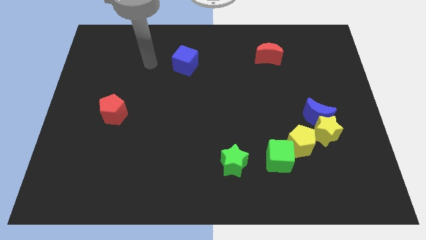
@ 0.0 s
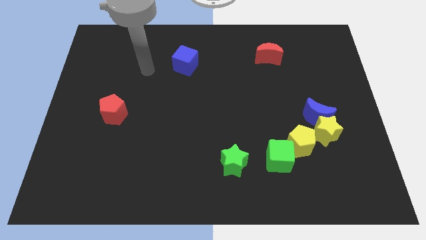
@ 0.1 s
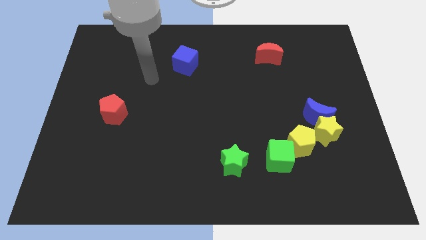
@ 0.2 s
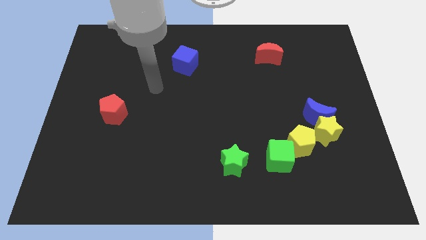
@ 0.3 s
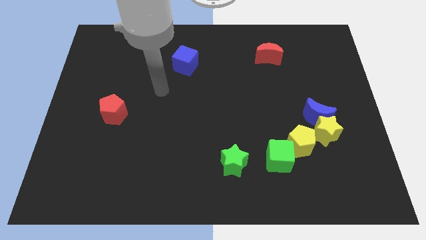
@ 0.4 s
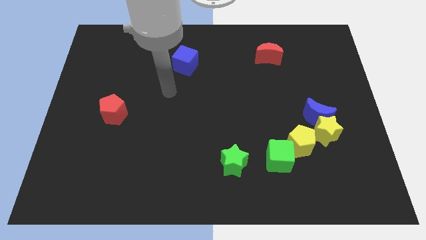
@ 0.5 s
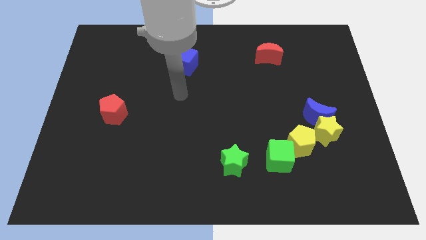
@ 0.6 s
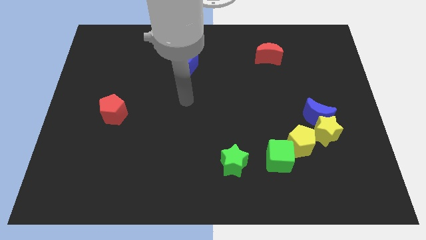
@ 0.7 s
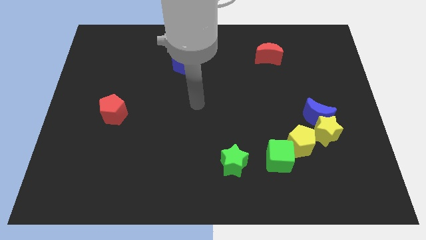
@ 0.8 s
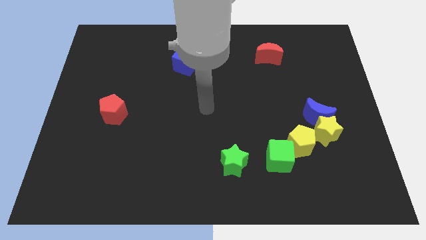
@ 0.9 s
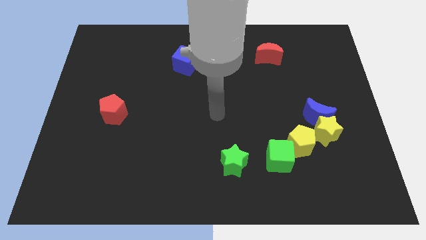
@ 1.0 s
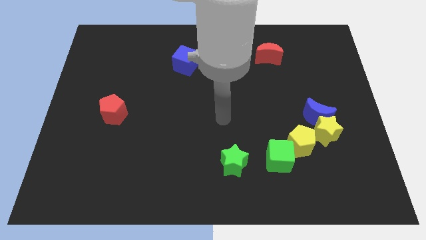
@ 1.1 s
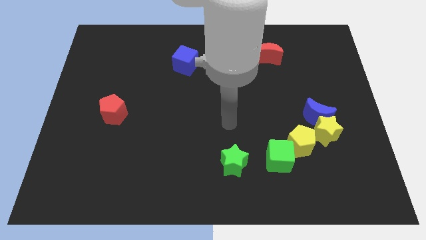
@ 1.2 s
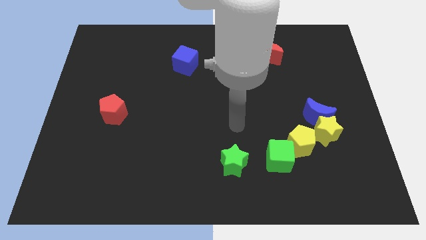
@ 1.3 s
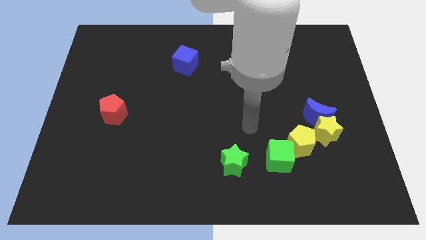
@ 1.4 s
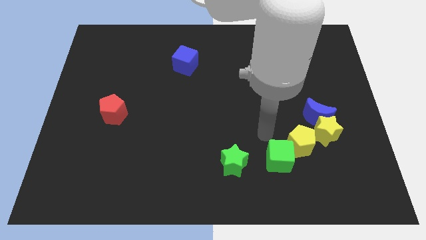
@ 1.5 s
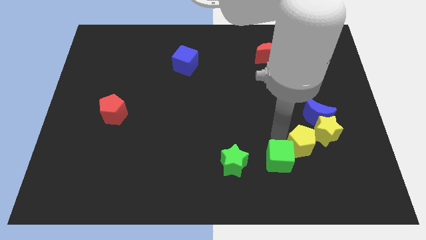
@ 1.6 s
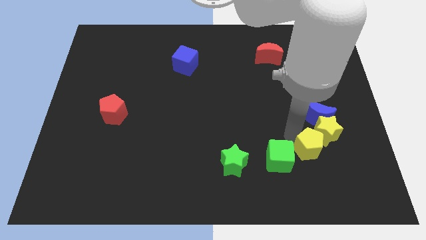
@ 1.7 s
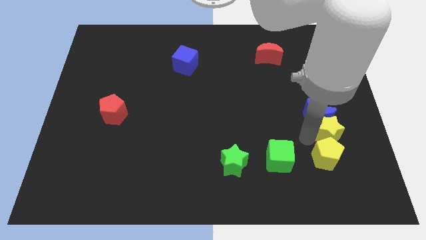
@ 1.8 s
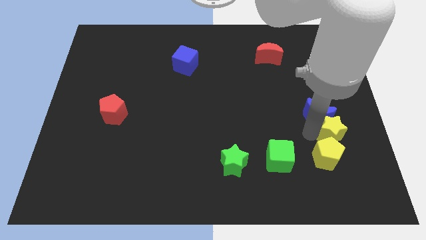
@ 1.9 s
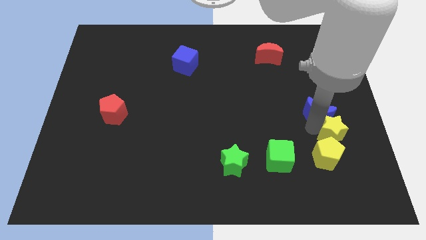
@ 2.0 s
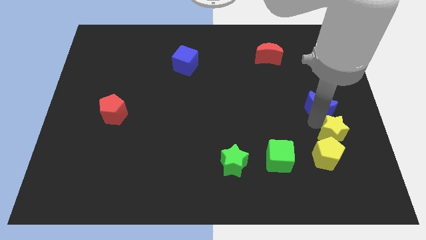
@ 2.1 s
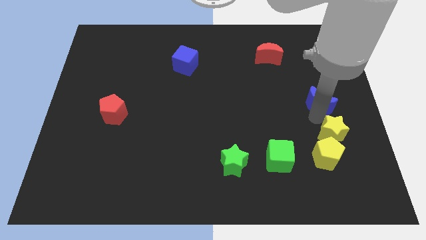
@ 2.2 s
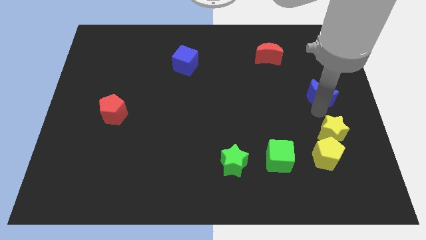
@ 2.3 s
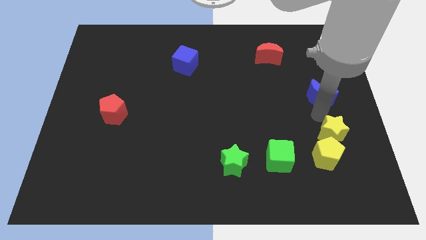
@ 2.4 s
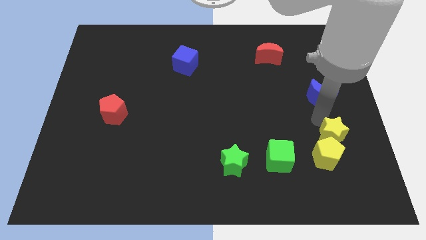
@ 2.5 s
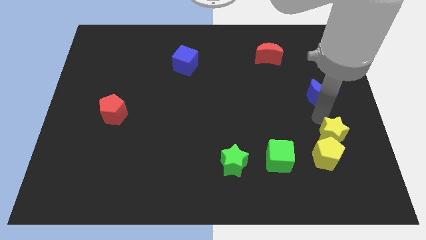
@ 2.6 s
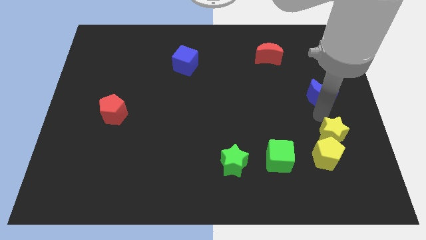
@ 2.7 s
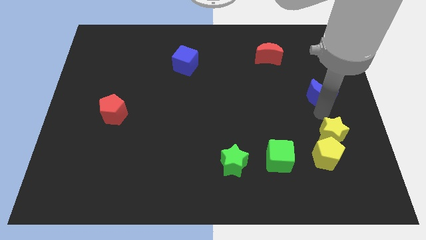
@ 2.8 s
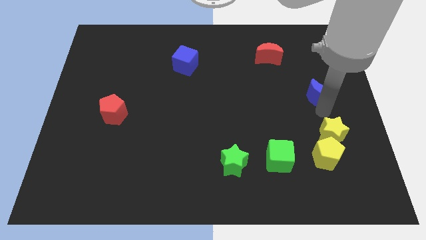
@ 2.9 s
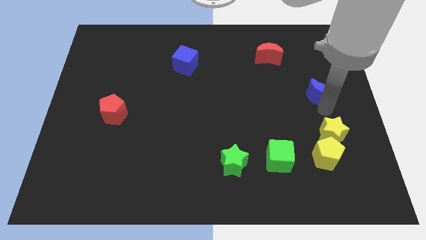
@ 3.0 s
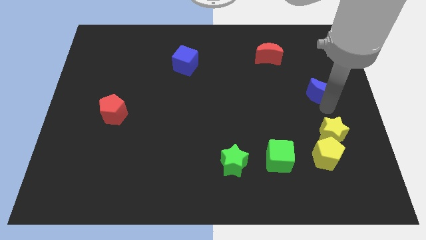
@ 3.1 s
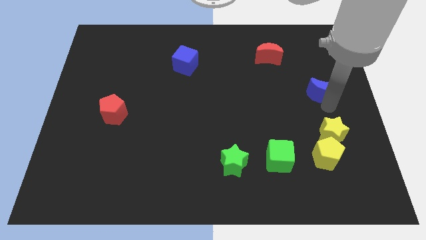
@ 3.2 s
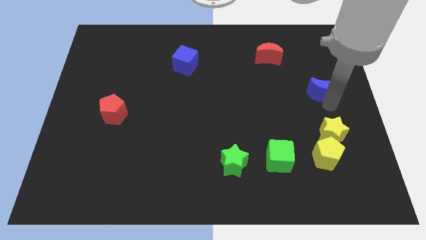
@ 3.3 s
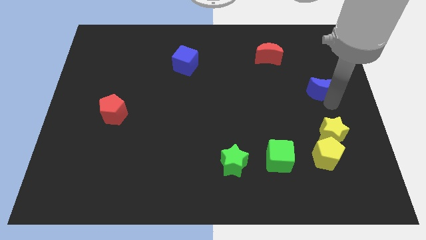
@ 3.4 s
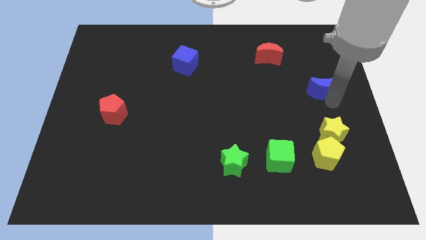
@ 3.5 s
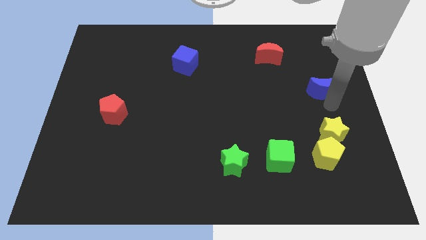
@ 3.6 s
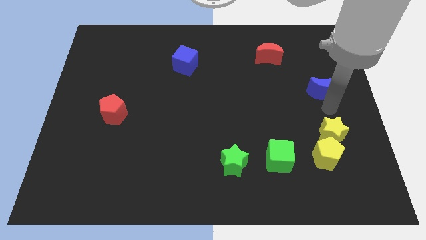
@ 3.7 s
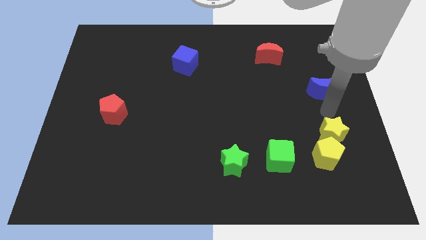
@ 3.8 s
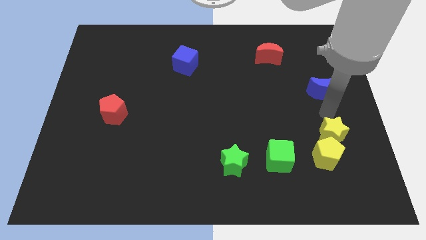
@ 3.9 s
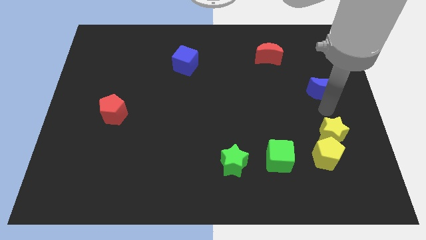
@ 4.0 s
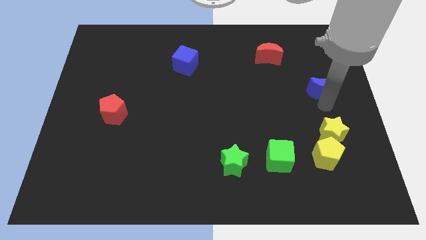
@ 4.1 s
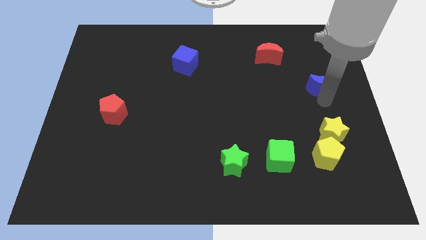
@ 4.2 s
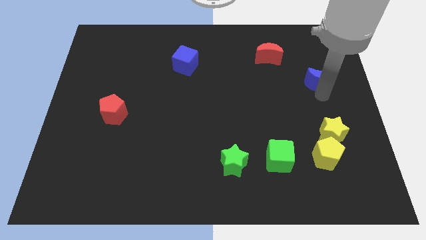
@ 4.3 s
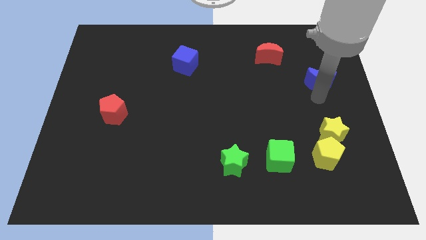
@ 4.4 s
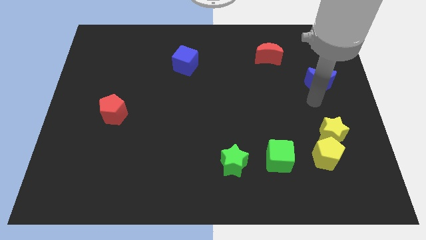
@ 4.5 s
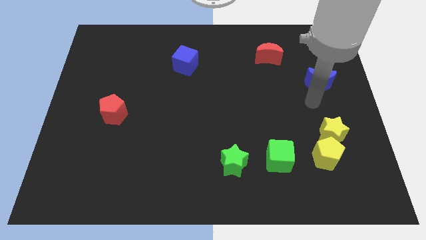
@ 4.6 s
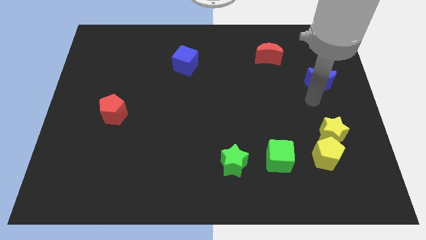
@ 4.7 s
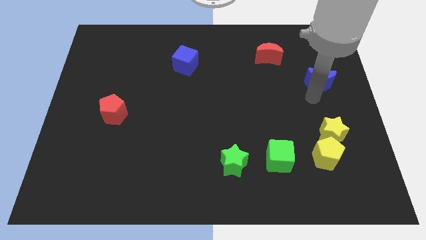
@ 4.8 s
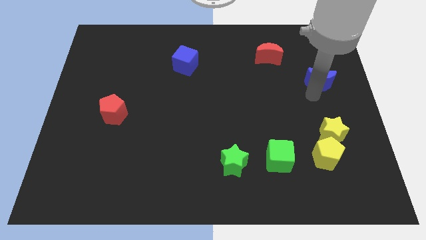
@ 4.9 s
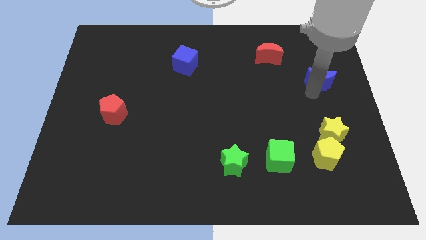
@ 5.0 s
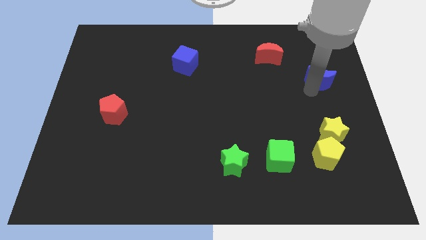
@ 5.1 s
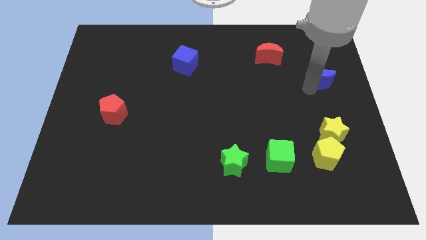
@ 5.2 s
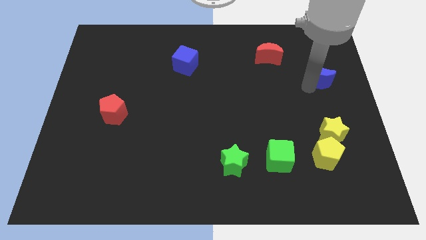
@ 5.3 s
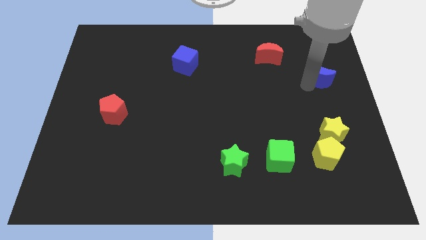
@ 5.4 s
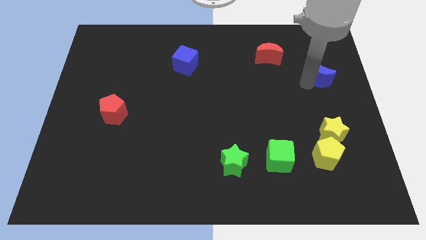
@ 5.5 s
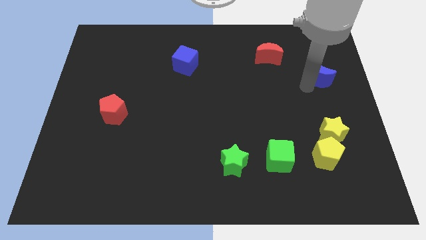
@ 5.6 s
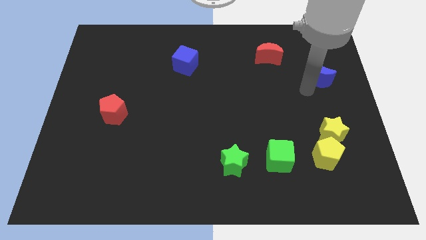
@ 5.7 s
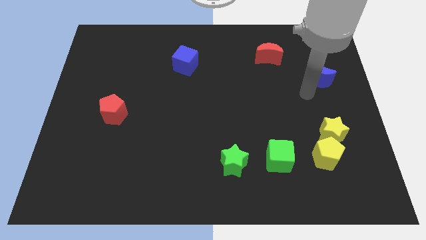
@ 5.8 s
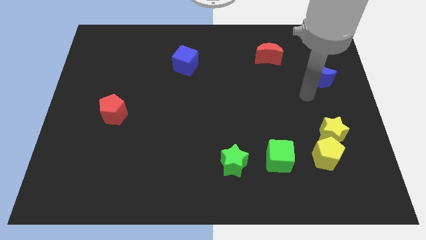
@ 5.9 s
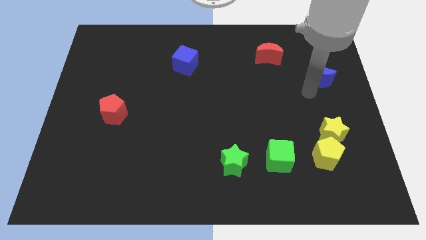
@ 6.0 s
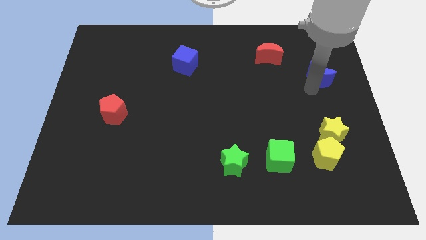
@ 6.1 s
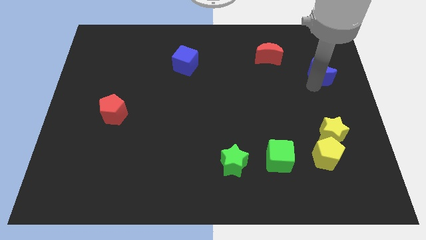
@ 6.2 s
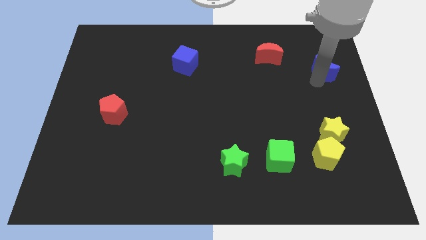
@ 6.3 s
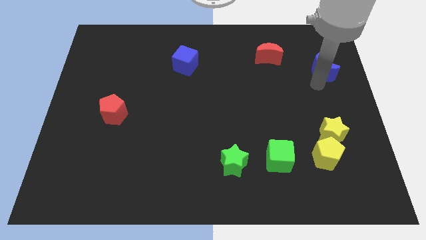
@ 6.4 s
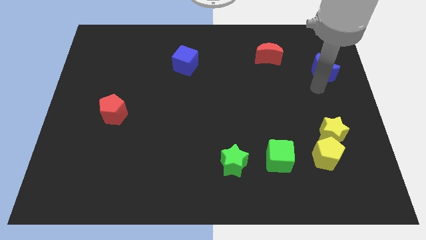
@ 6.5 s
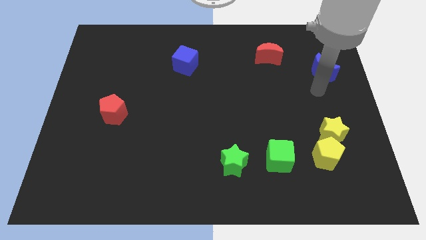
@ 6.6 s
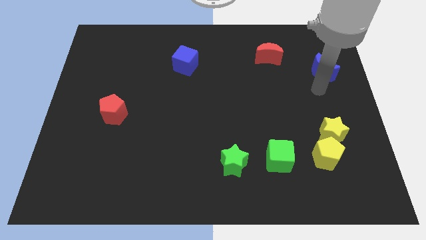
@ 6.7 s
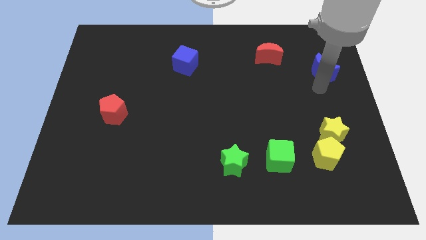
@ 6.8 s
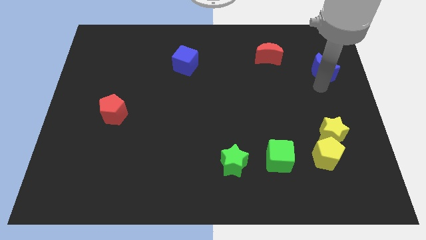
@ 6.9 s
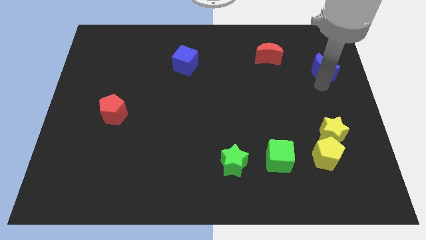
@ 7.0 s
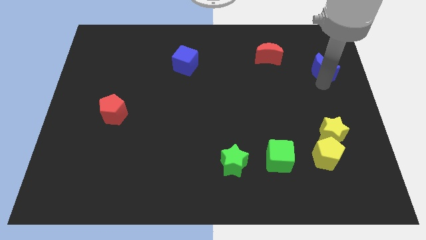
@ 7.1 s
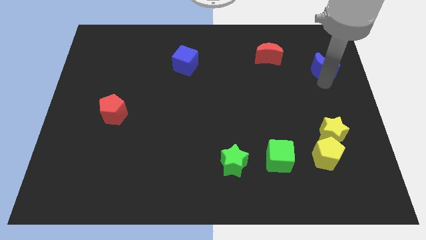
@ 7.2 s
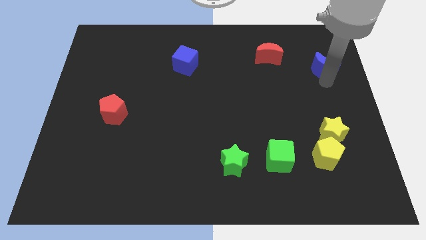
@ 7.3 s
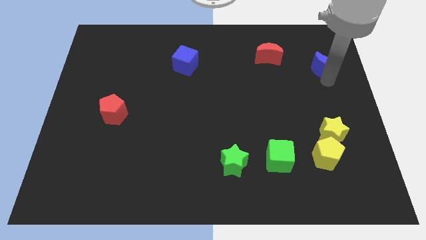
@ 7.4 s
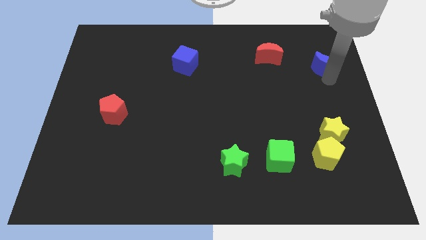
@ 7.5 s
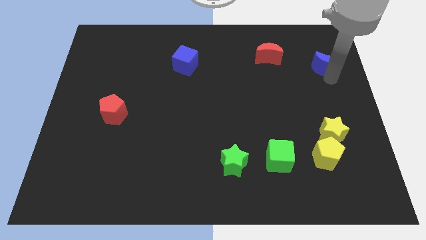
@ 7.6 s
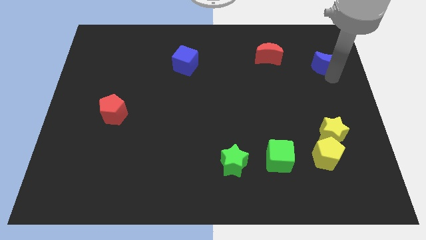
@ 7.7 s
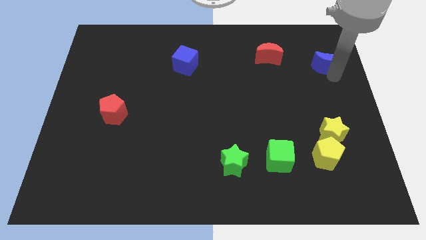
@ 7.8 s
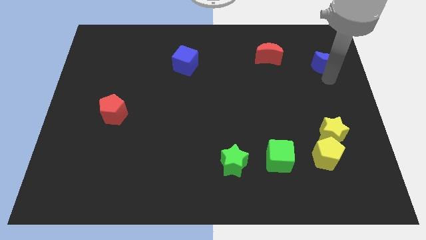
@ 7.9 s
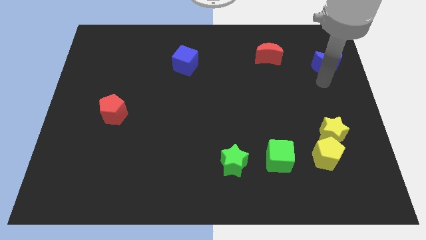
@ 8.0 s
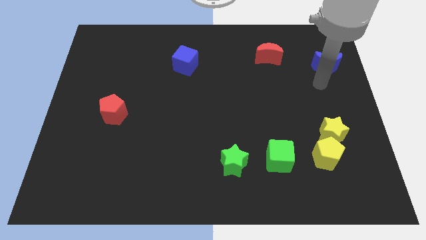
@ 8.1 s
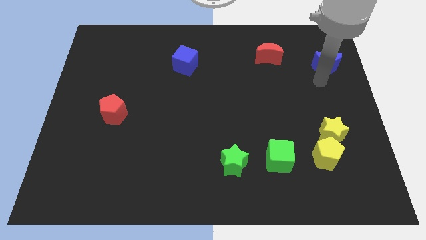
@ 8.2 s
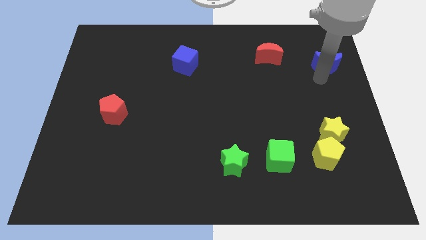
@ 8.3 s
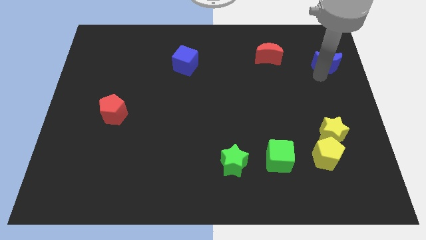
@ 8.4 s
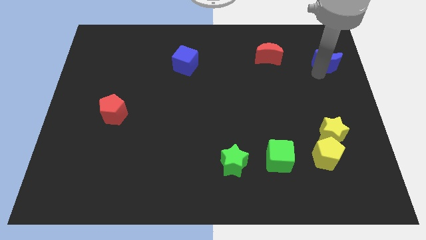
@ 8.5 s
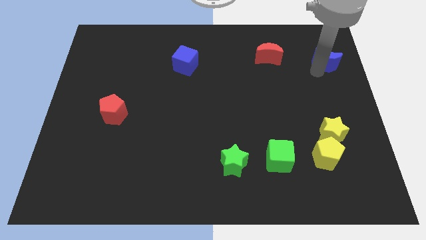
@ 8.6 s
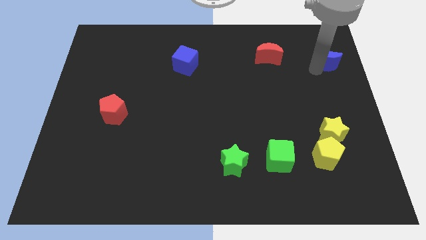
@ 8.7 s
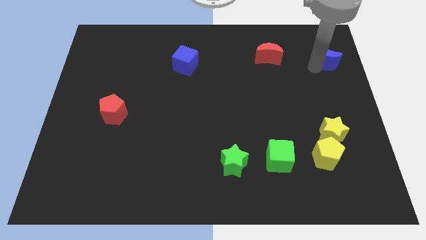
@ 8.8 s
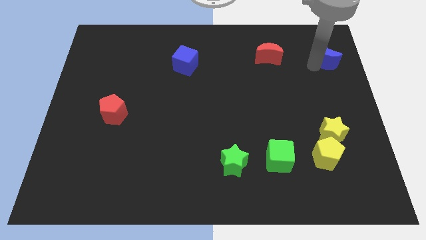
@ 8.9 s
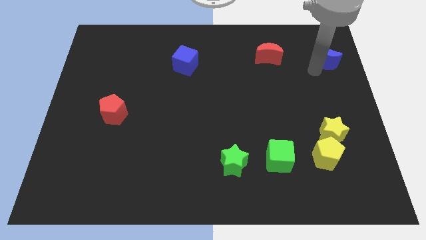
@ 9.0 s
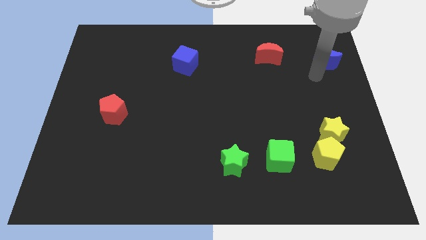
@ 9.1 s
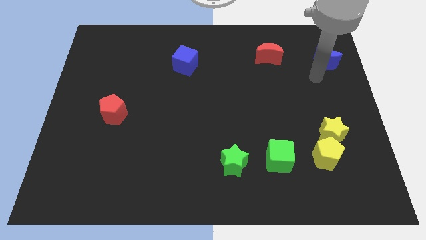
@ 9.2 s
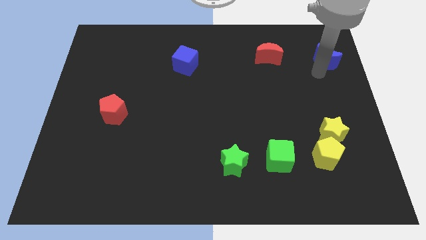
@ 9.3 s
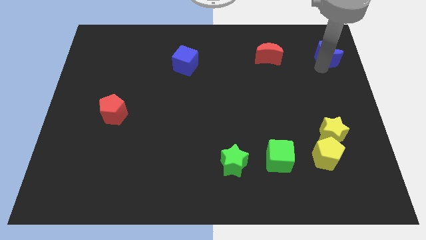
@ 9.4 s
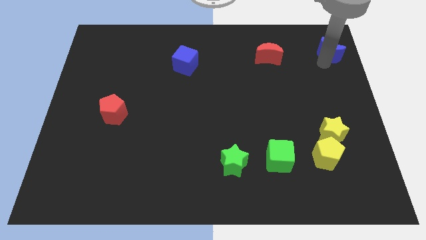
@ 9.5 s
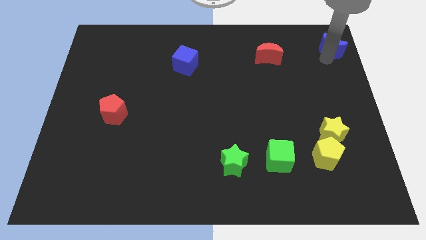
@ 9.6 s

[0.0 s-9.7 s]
push the blue moon to the top right of the board
